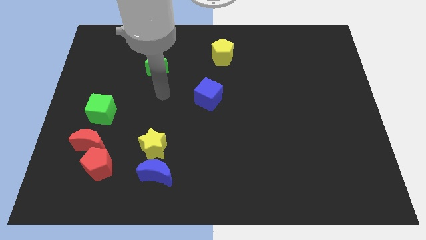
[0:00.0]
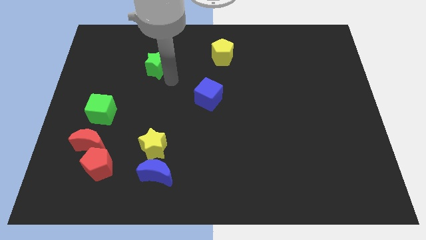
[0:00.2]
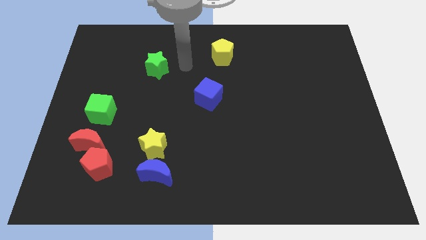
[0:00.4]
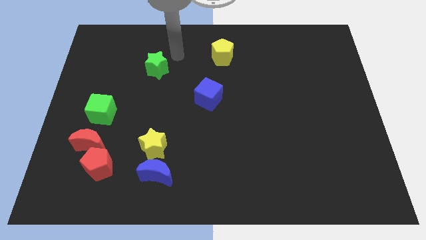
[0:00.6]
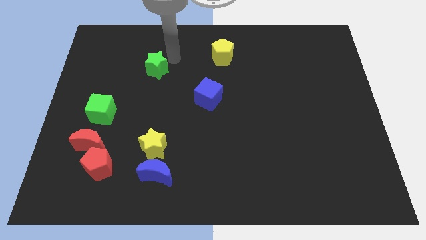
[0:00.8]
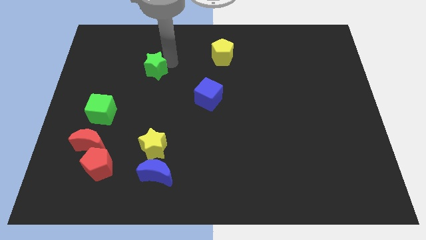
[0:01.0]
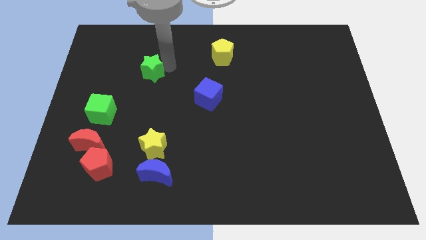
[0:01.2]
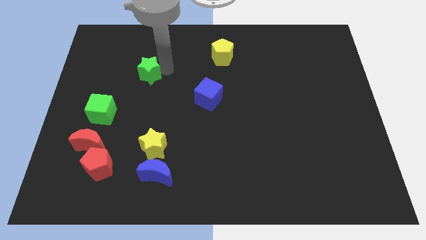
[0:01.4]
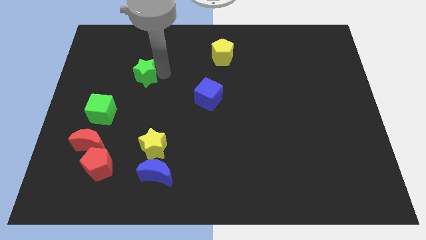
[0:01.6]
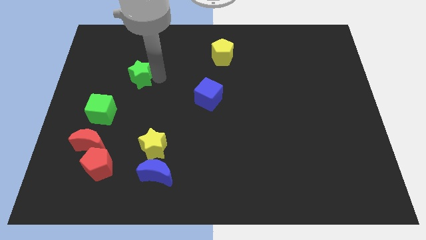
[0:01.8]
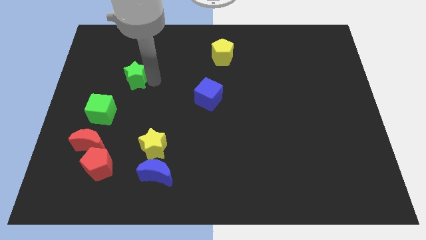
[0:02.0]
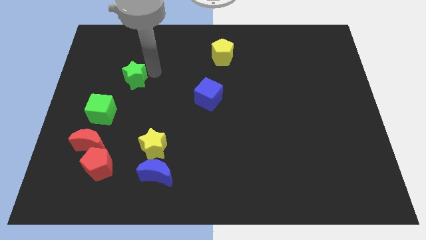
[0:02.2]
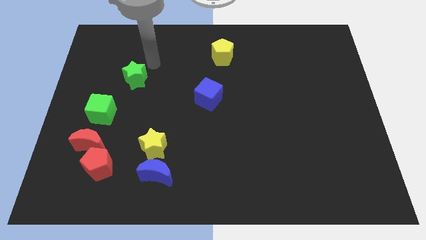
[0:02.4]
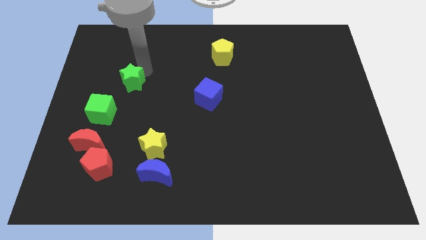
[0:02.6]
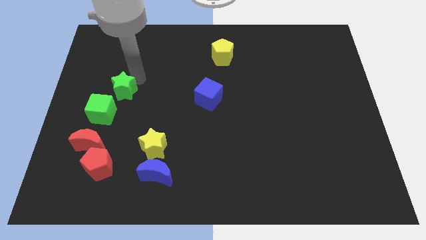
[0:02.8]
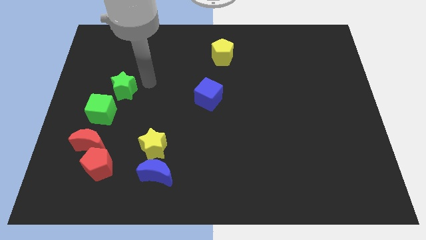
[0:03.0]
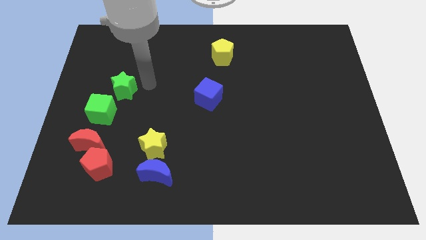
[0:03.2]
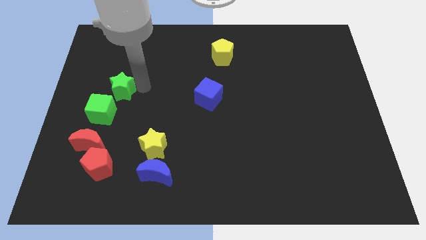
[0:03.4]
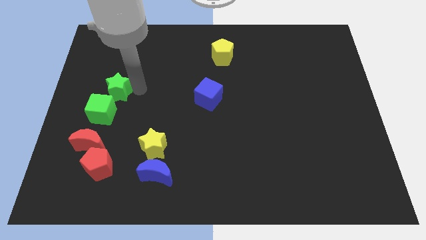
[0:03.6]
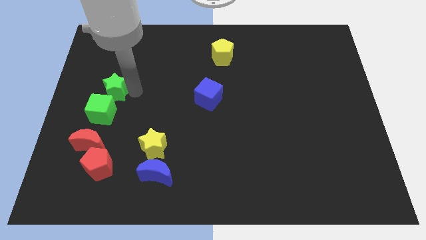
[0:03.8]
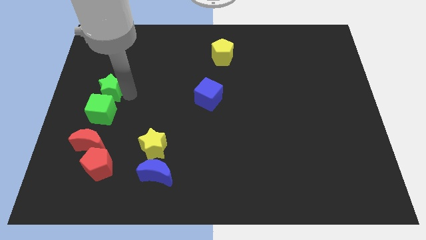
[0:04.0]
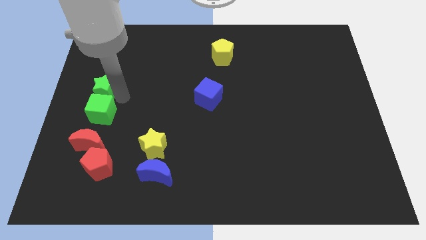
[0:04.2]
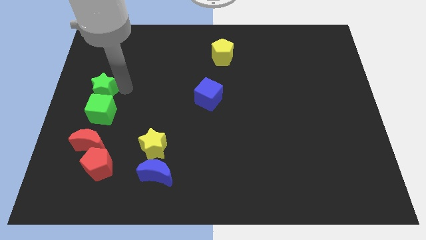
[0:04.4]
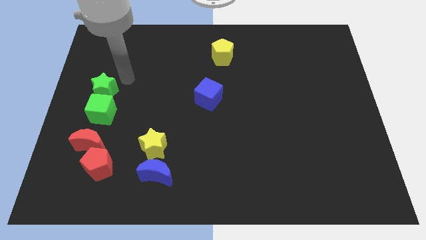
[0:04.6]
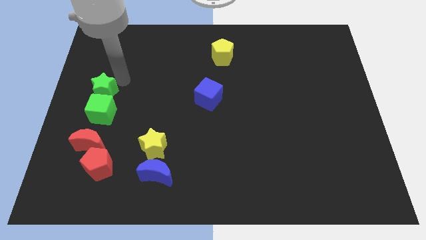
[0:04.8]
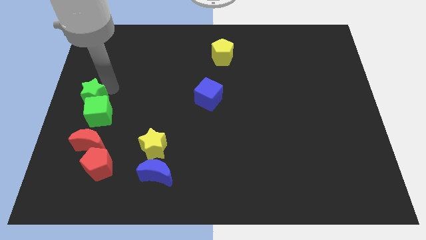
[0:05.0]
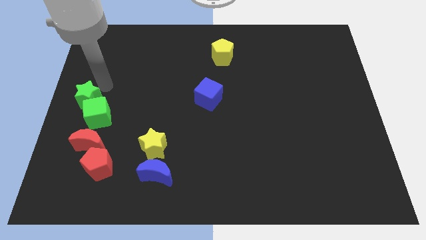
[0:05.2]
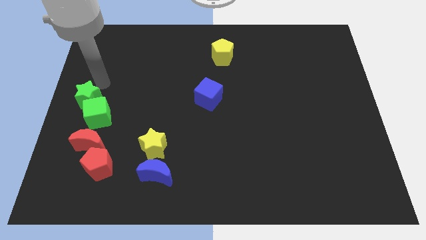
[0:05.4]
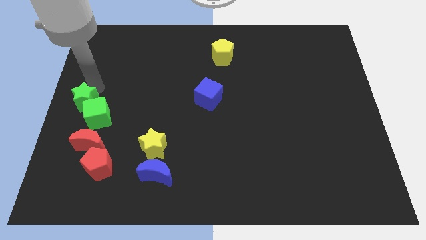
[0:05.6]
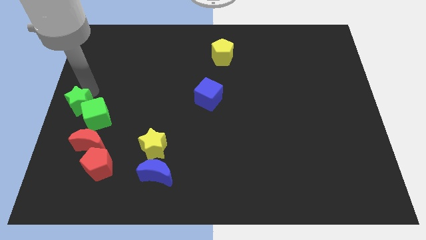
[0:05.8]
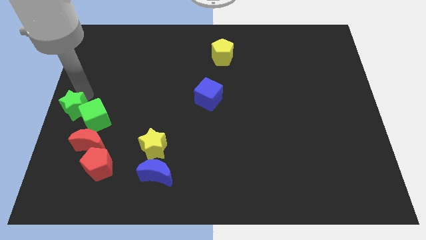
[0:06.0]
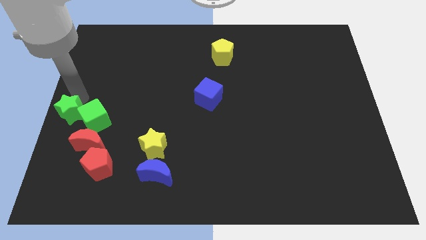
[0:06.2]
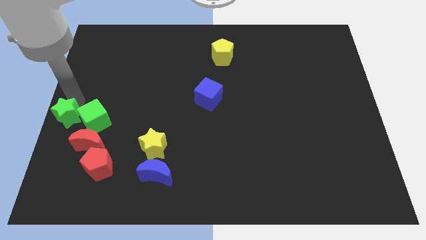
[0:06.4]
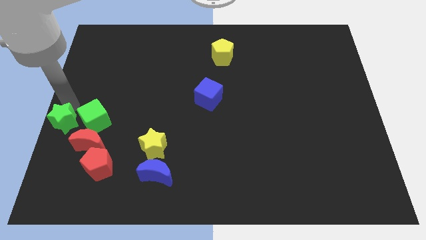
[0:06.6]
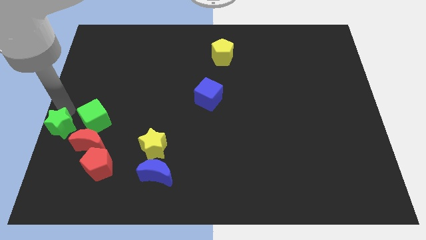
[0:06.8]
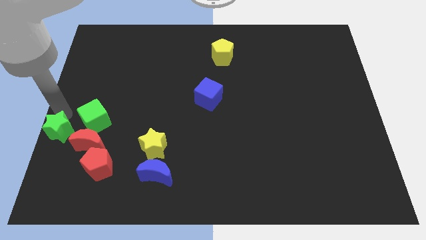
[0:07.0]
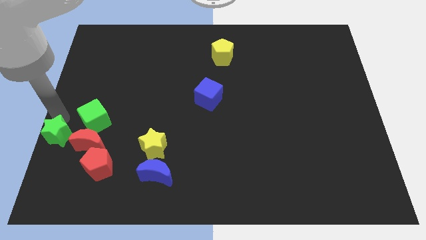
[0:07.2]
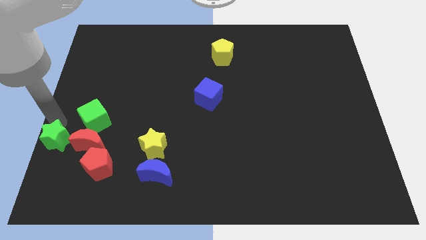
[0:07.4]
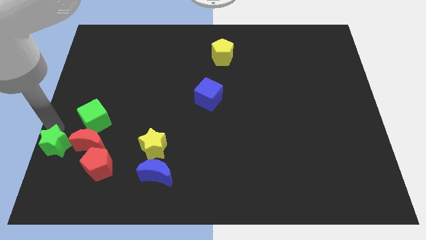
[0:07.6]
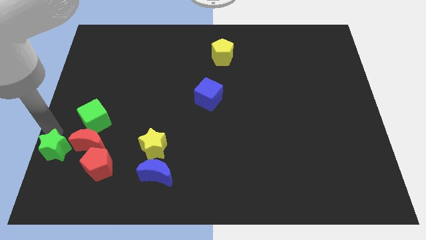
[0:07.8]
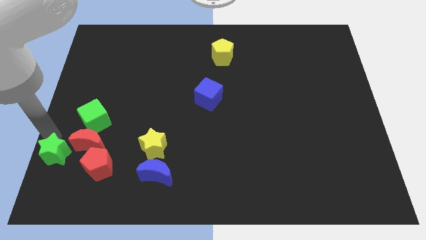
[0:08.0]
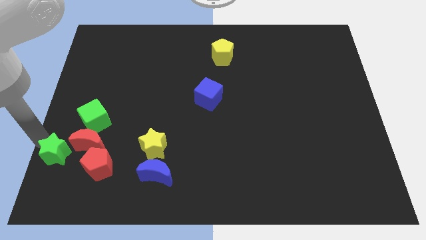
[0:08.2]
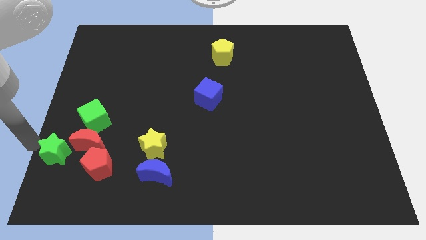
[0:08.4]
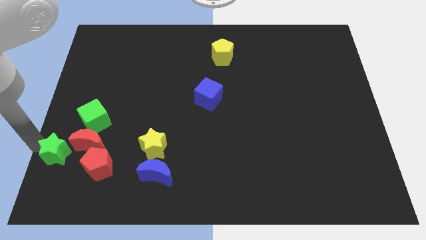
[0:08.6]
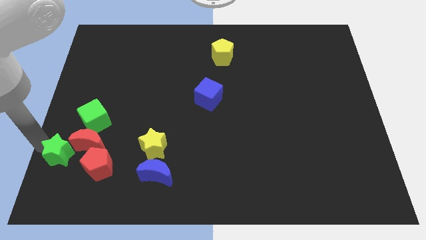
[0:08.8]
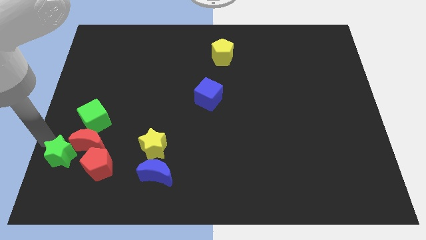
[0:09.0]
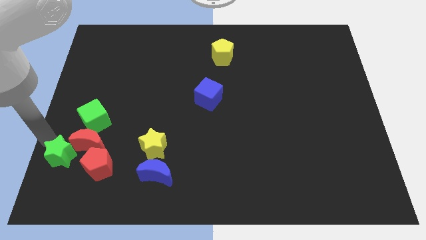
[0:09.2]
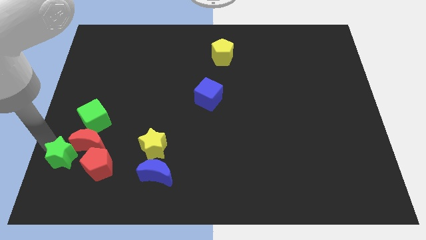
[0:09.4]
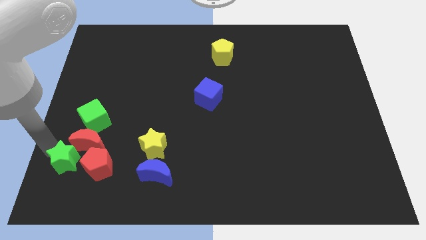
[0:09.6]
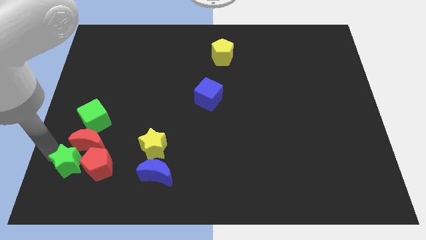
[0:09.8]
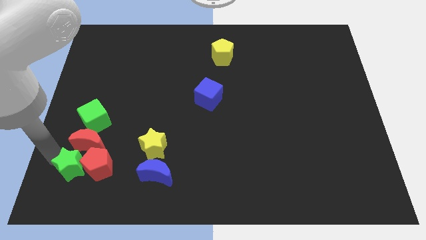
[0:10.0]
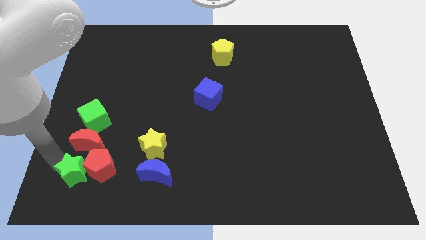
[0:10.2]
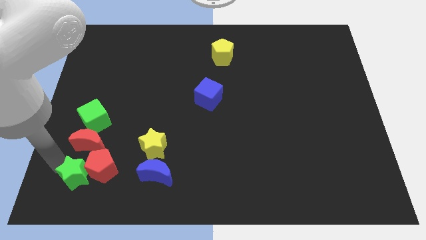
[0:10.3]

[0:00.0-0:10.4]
push the green star just left of the blue moon

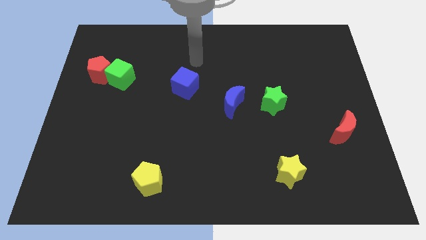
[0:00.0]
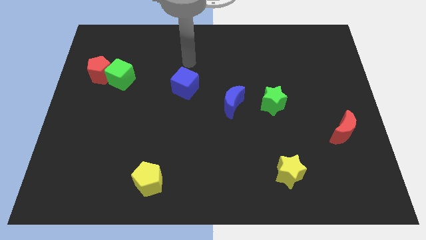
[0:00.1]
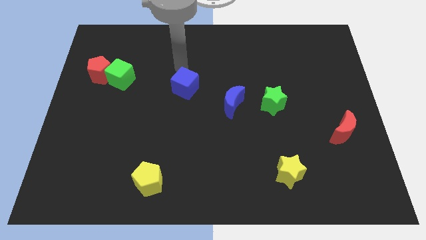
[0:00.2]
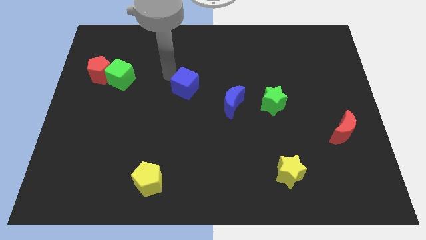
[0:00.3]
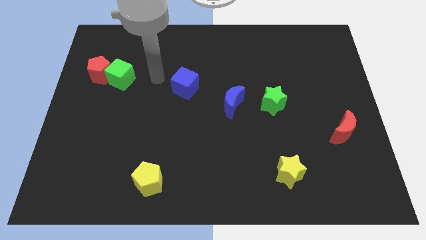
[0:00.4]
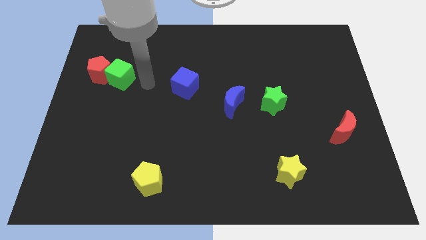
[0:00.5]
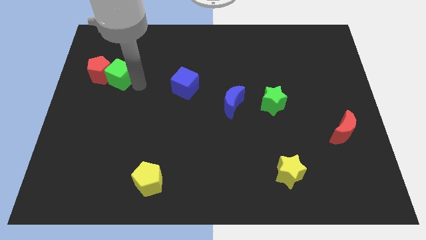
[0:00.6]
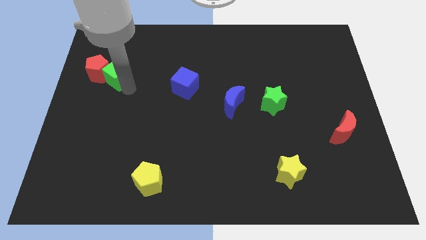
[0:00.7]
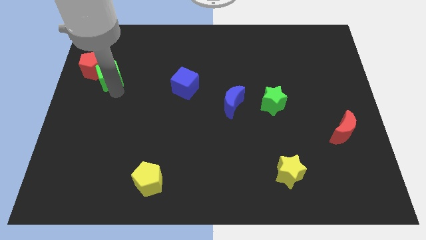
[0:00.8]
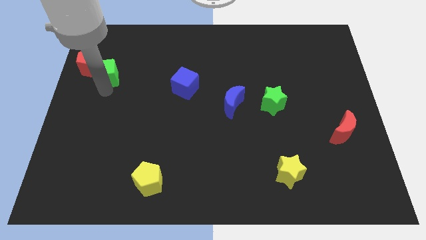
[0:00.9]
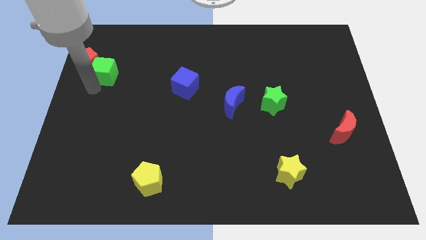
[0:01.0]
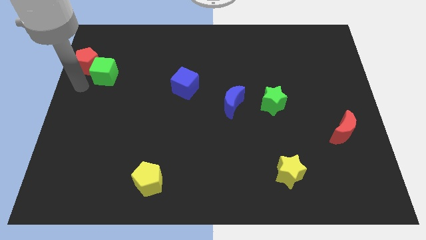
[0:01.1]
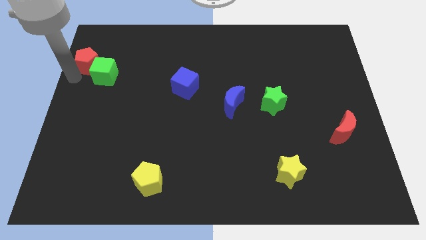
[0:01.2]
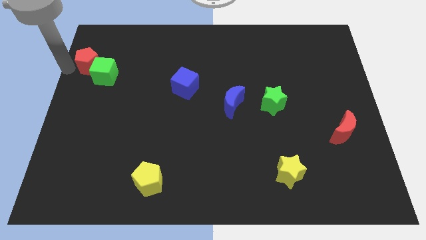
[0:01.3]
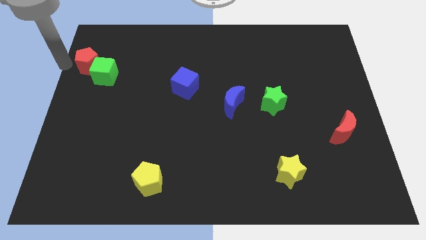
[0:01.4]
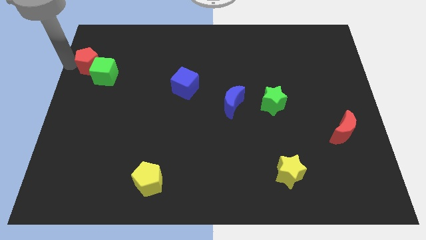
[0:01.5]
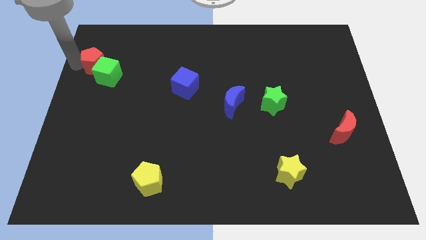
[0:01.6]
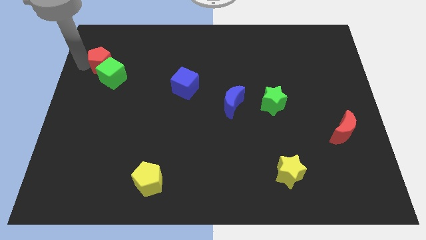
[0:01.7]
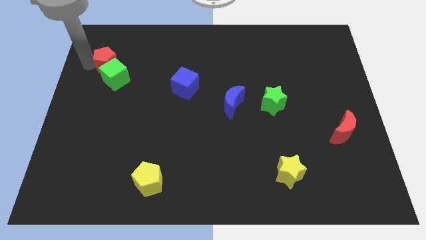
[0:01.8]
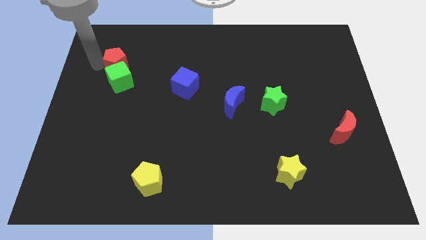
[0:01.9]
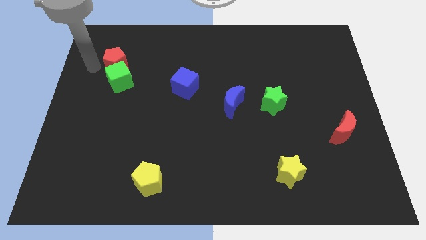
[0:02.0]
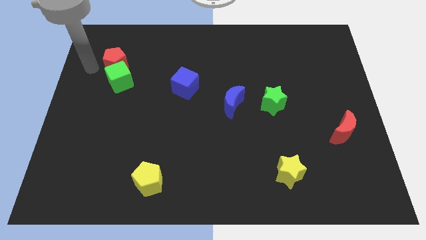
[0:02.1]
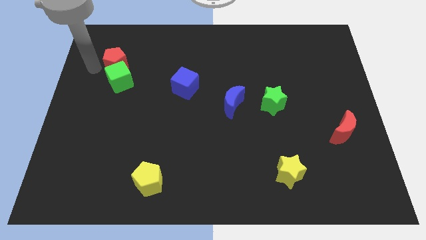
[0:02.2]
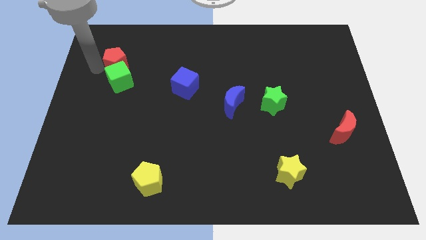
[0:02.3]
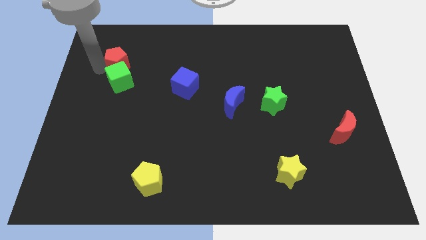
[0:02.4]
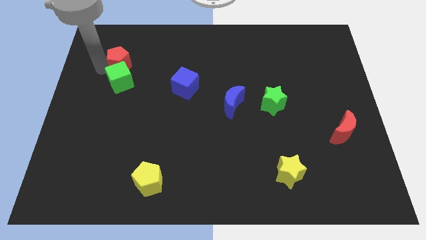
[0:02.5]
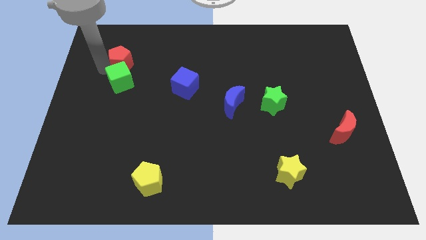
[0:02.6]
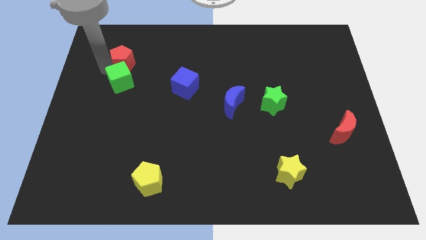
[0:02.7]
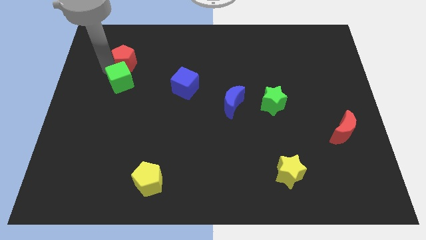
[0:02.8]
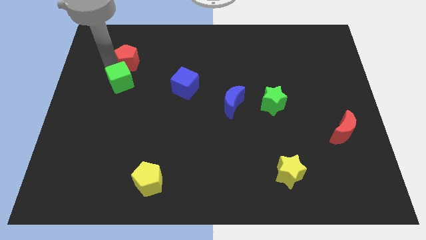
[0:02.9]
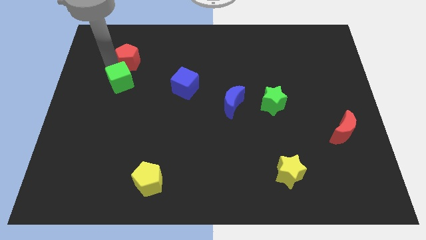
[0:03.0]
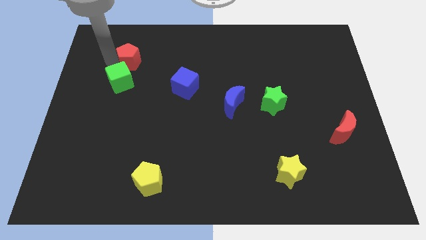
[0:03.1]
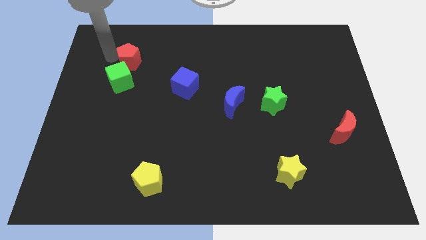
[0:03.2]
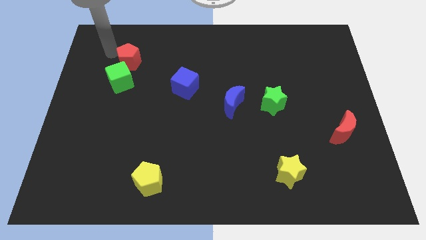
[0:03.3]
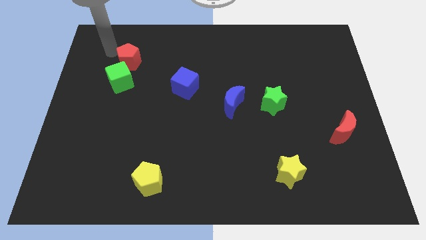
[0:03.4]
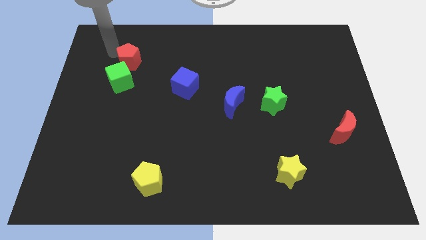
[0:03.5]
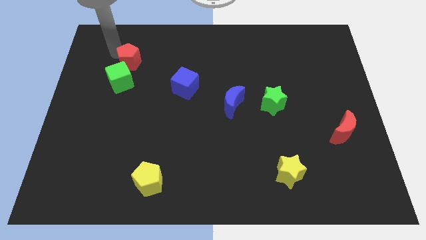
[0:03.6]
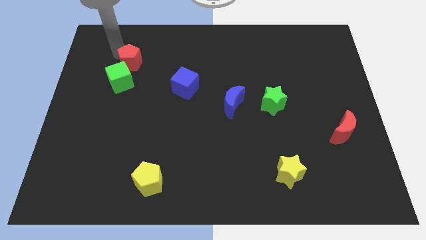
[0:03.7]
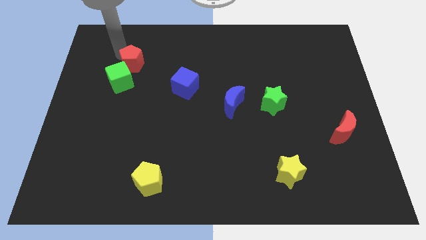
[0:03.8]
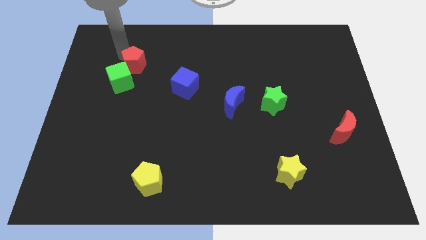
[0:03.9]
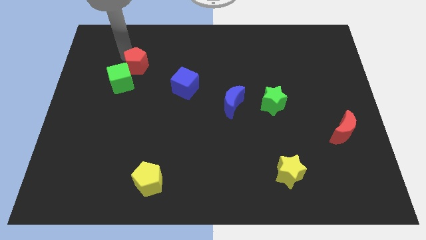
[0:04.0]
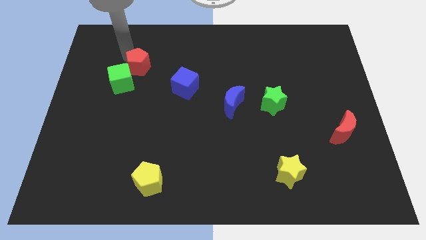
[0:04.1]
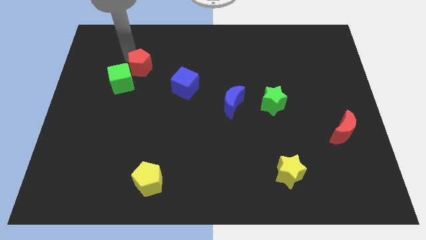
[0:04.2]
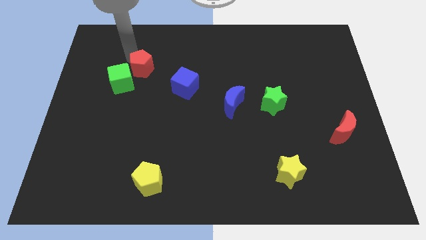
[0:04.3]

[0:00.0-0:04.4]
put the red pentagon just right of the green cube
